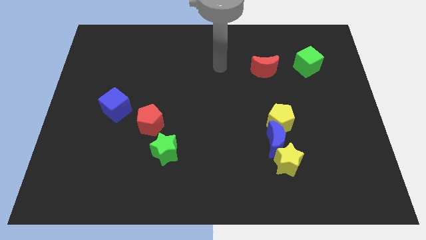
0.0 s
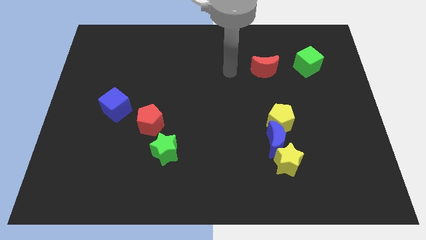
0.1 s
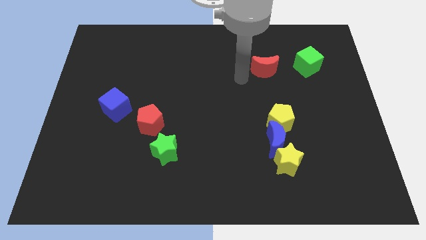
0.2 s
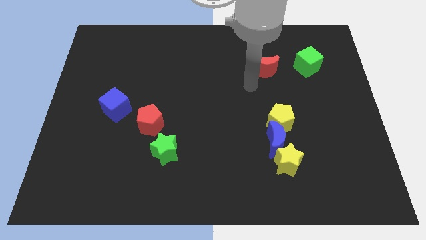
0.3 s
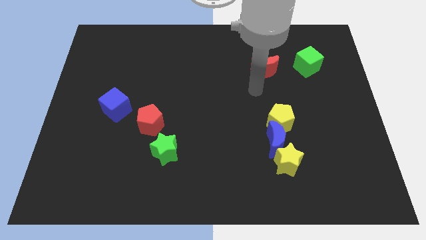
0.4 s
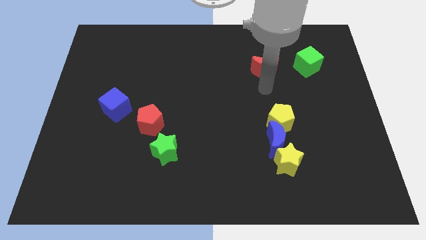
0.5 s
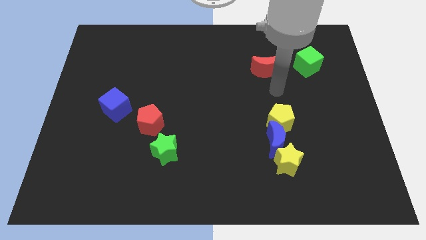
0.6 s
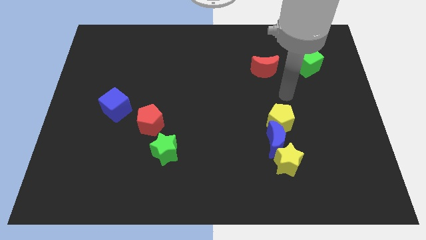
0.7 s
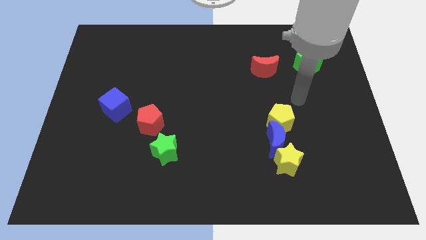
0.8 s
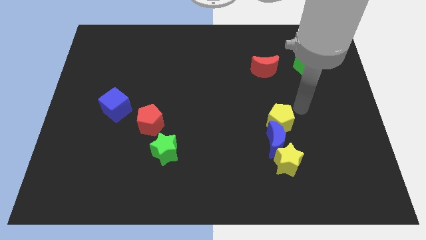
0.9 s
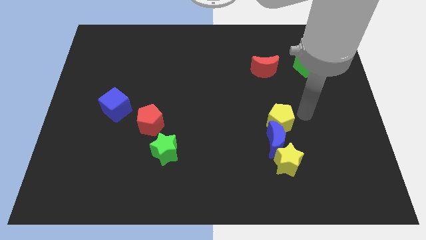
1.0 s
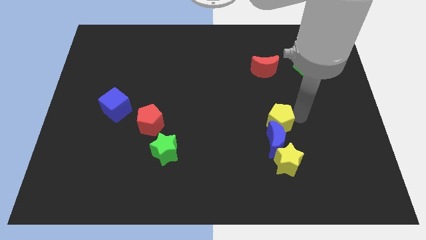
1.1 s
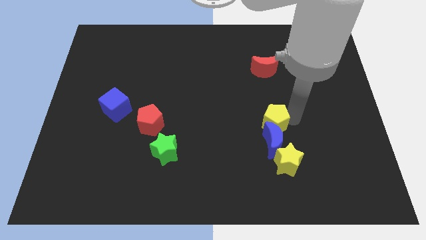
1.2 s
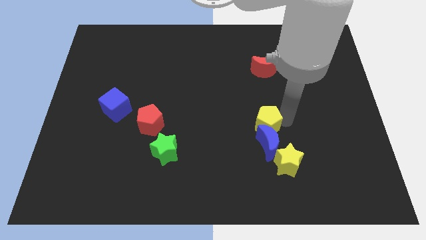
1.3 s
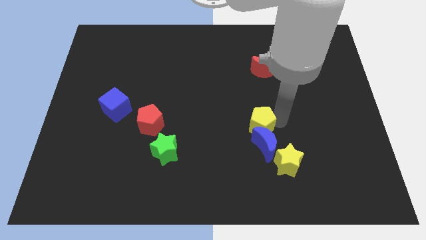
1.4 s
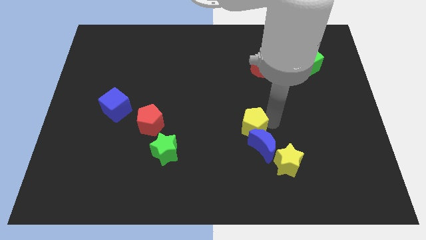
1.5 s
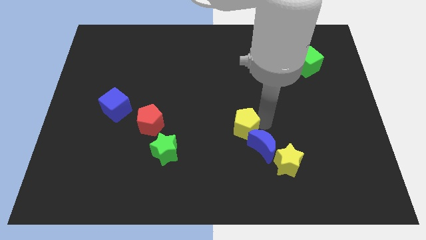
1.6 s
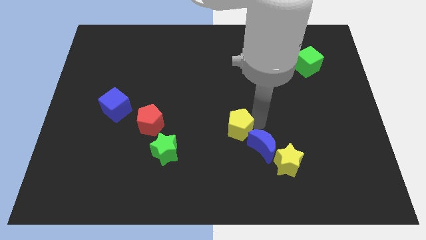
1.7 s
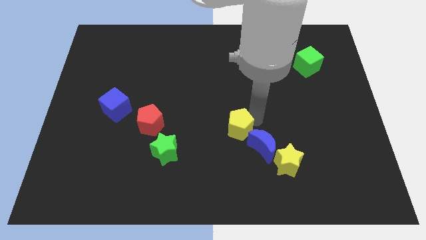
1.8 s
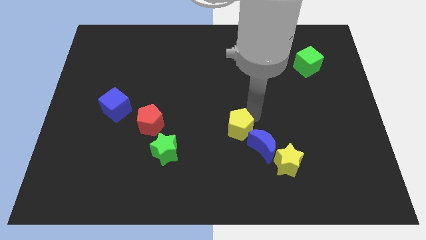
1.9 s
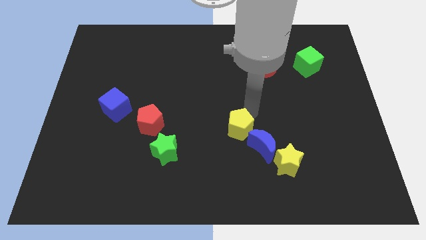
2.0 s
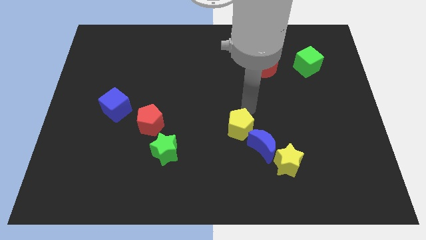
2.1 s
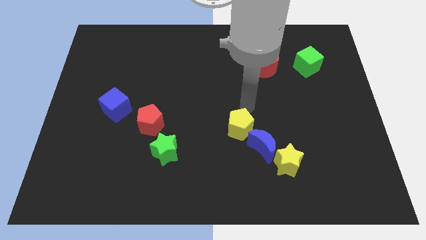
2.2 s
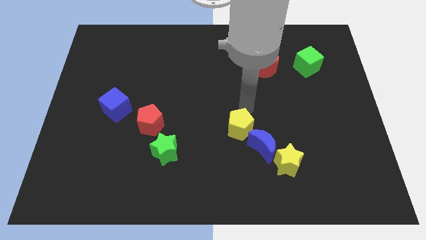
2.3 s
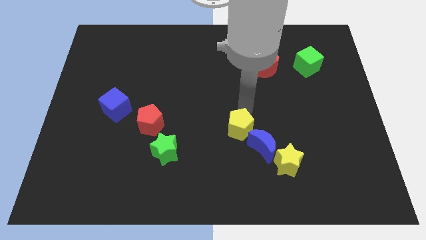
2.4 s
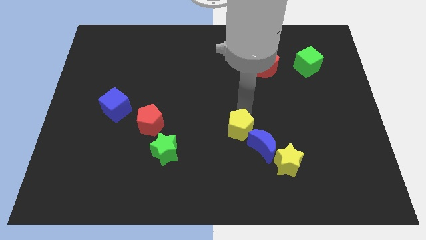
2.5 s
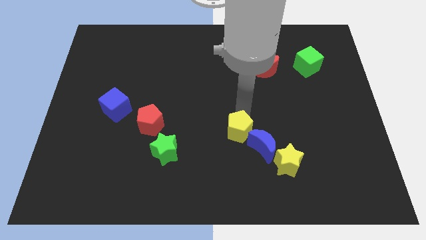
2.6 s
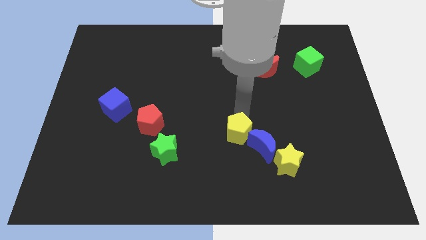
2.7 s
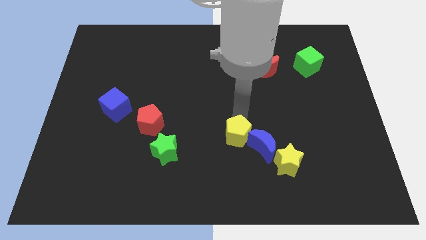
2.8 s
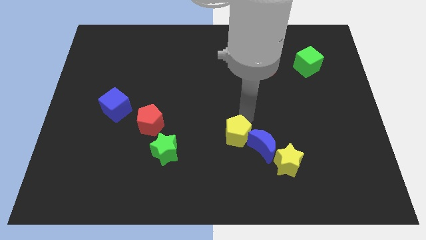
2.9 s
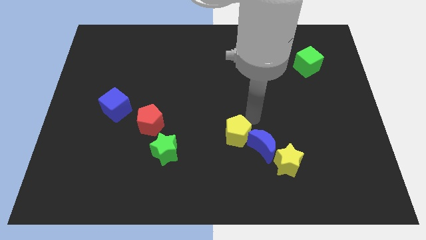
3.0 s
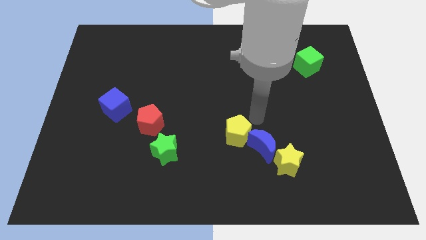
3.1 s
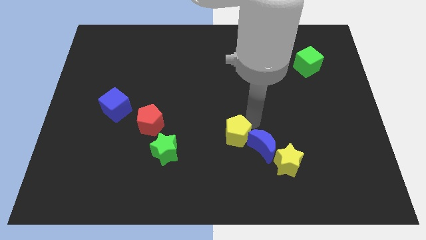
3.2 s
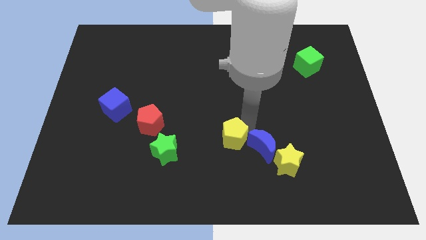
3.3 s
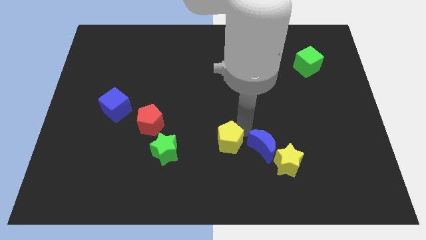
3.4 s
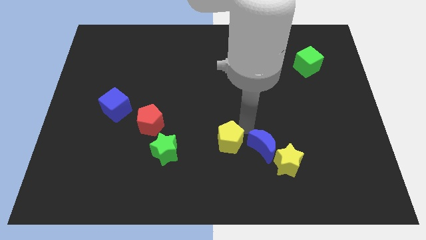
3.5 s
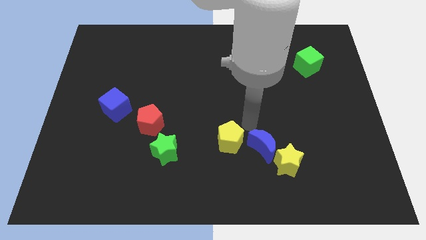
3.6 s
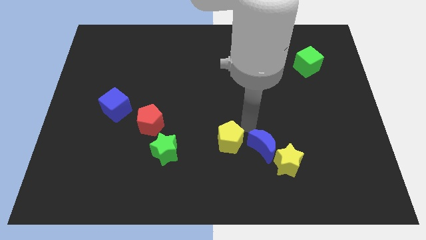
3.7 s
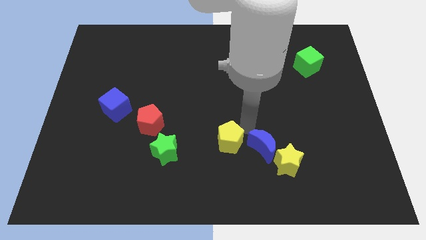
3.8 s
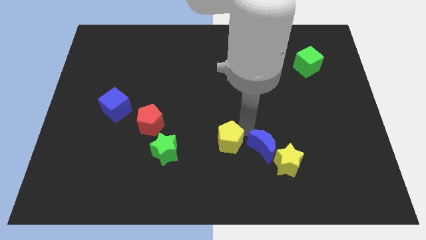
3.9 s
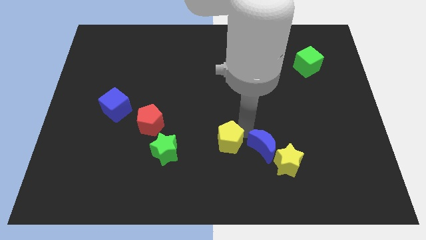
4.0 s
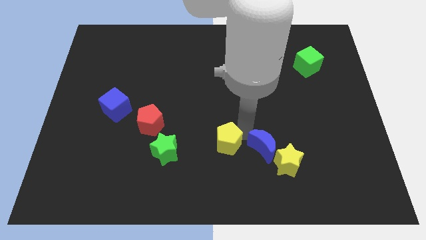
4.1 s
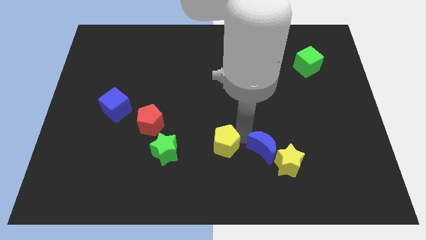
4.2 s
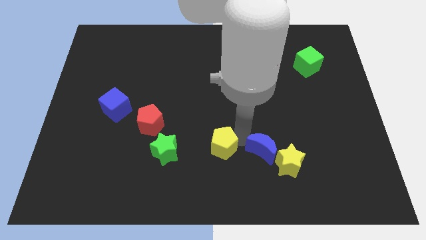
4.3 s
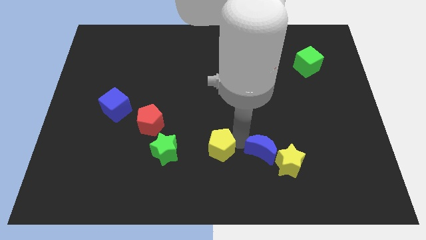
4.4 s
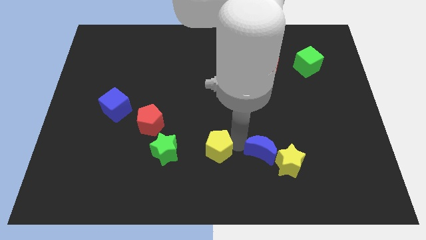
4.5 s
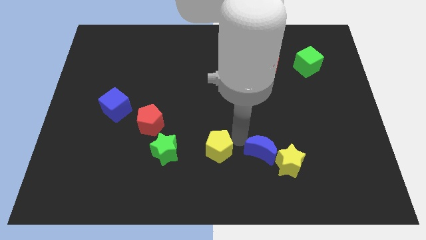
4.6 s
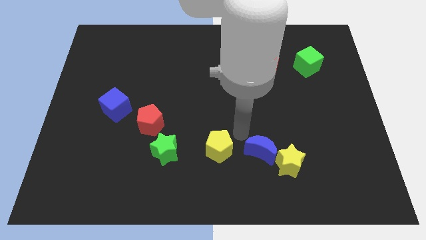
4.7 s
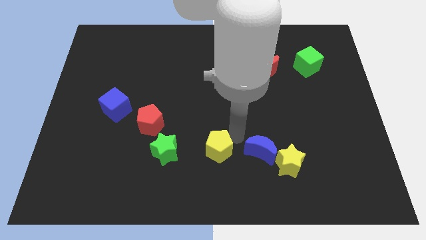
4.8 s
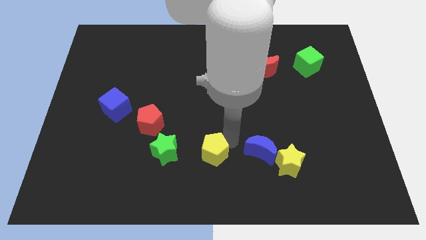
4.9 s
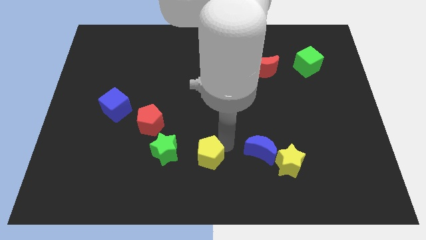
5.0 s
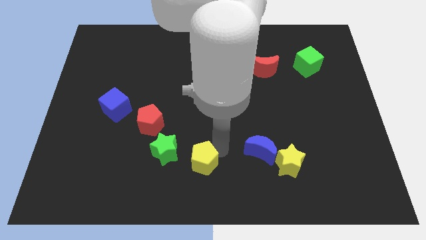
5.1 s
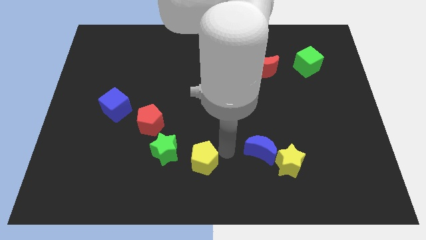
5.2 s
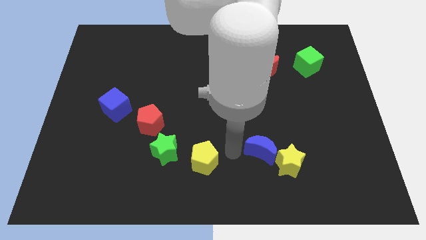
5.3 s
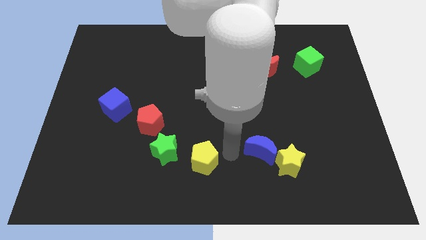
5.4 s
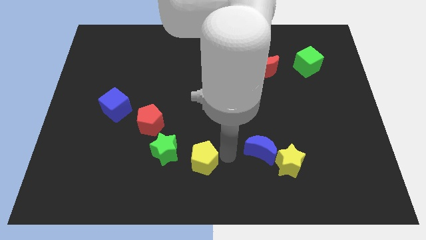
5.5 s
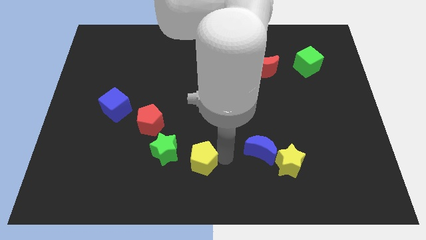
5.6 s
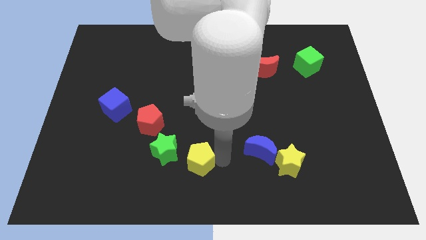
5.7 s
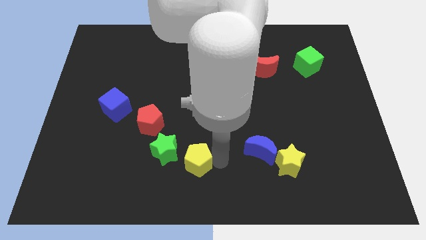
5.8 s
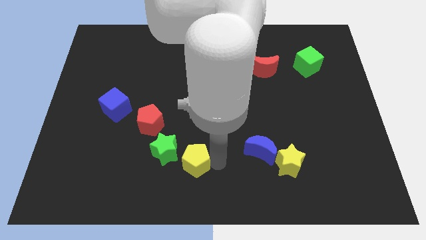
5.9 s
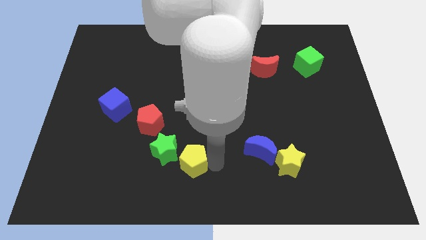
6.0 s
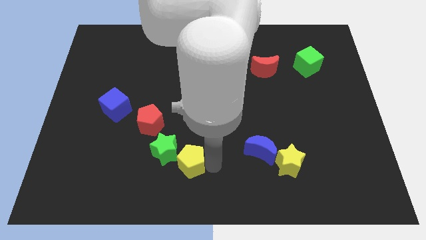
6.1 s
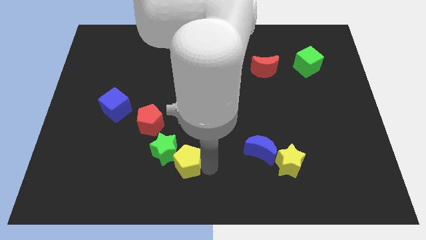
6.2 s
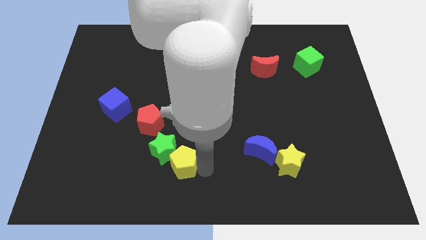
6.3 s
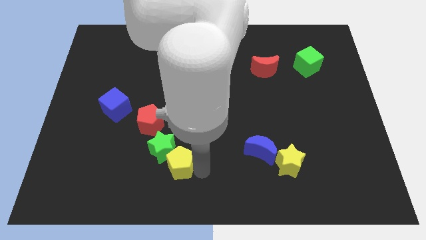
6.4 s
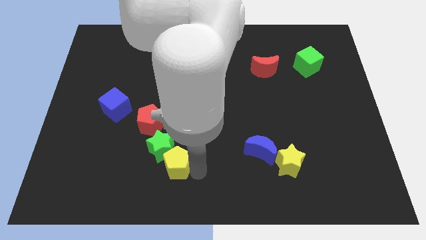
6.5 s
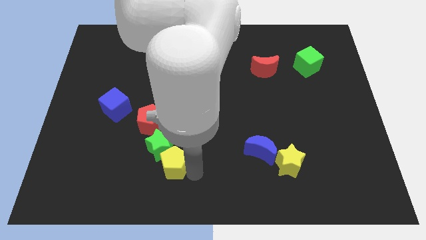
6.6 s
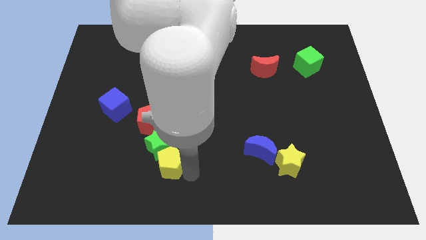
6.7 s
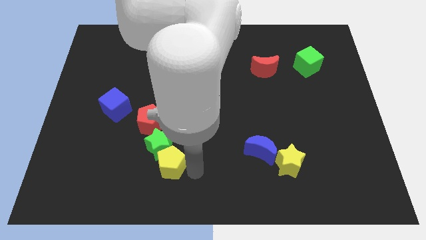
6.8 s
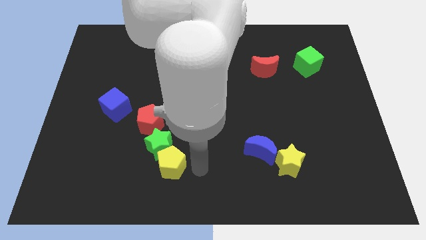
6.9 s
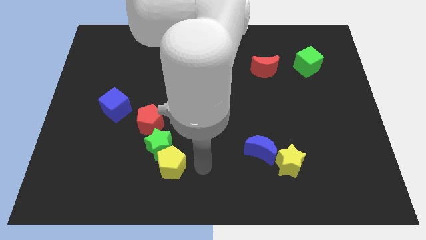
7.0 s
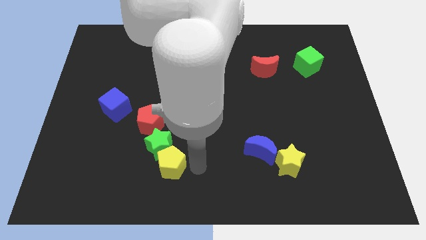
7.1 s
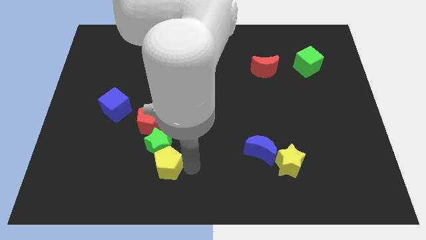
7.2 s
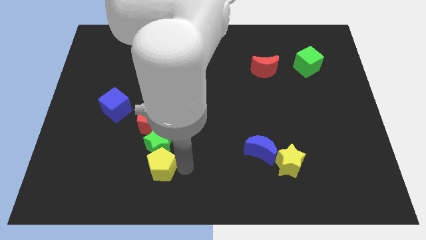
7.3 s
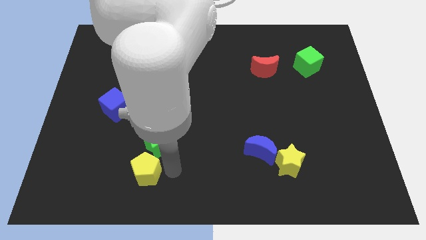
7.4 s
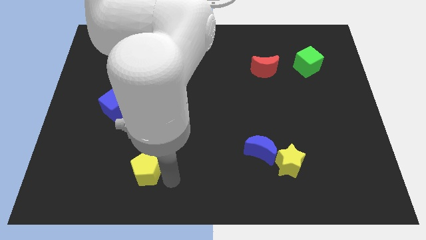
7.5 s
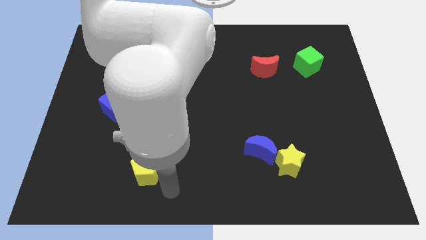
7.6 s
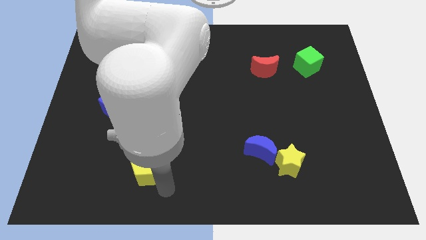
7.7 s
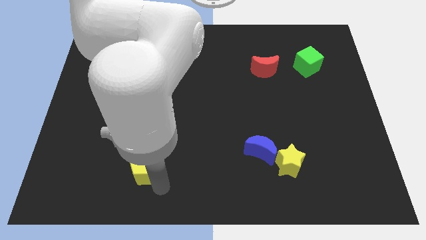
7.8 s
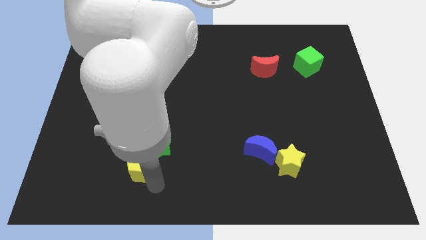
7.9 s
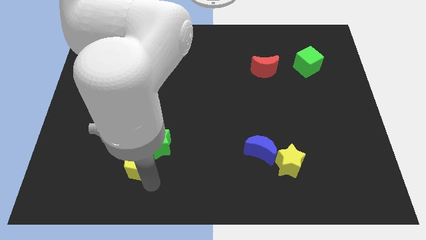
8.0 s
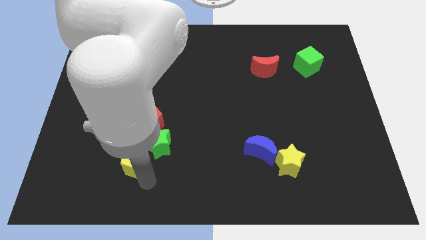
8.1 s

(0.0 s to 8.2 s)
slide the yellow pentagon to the left side of the green star
